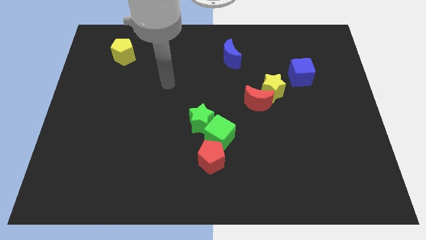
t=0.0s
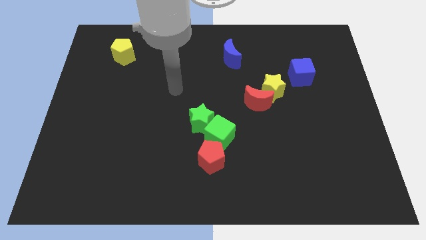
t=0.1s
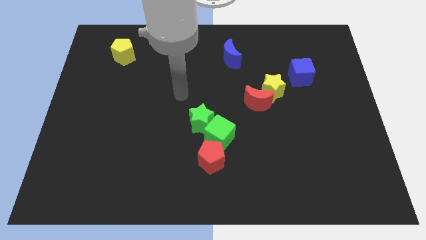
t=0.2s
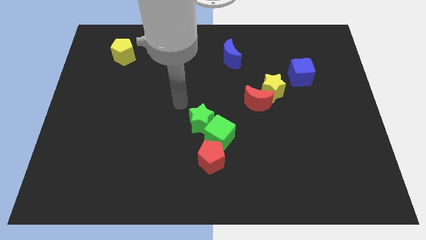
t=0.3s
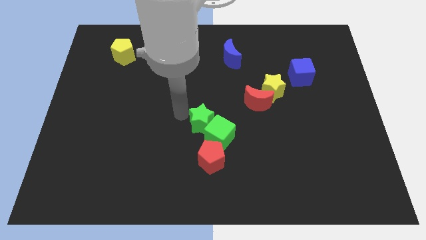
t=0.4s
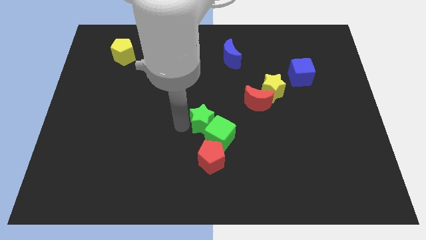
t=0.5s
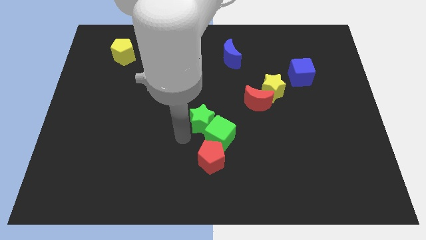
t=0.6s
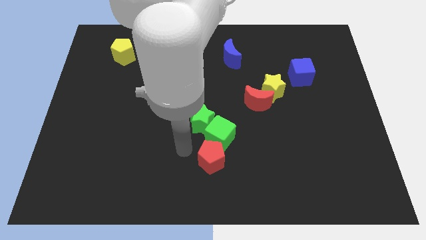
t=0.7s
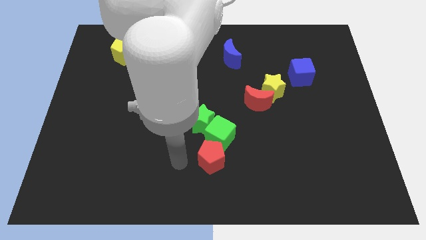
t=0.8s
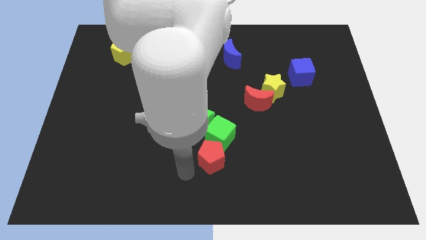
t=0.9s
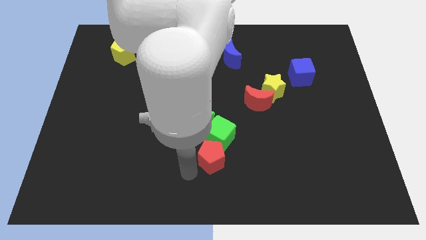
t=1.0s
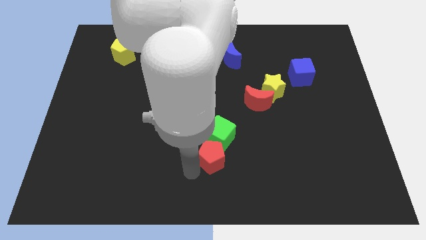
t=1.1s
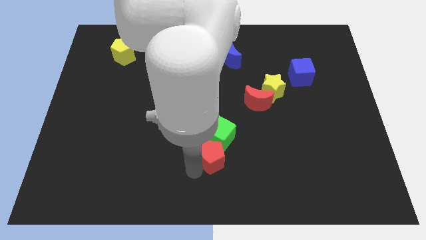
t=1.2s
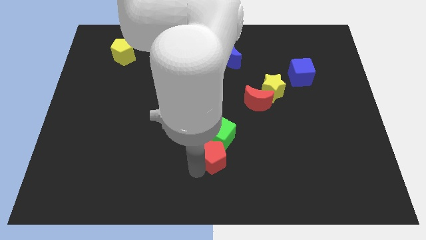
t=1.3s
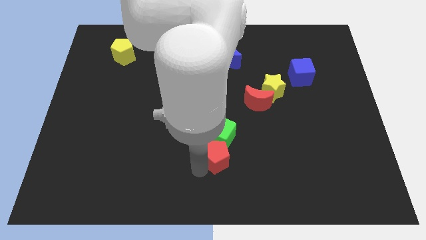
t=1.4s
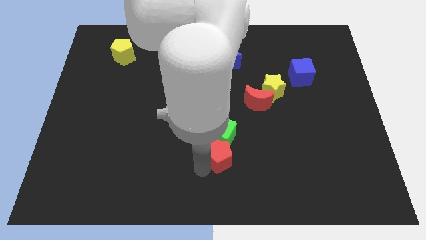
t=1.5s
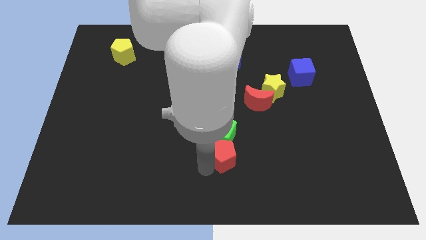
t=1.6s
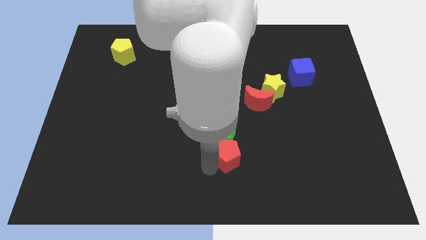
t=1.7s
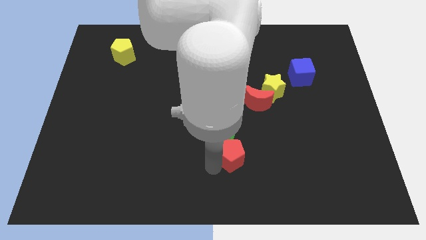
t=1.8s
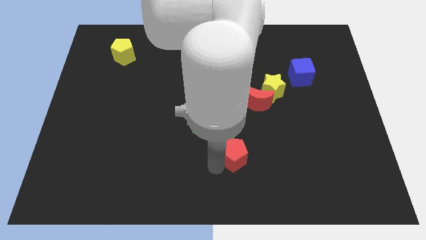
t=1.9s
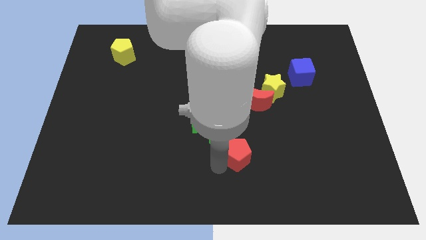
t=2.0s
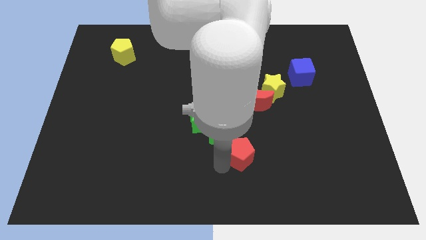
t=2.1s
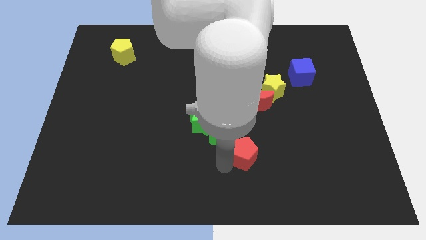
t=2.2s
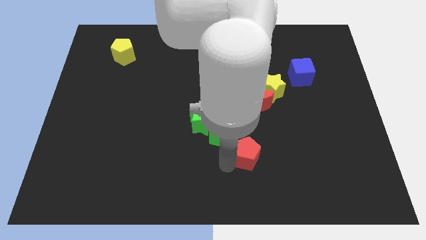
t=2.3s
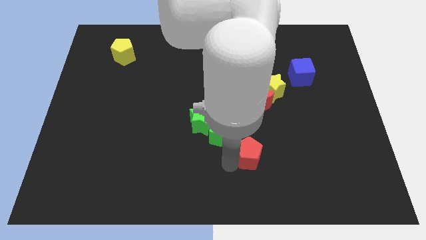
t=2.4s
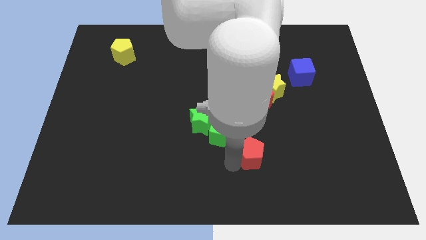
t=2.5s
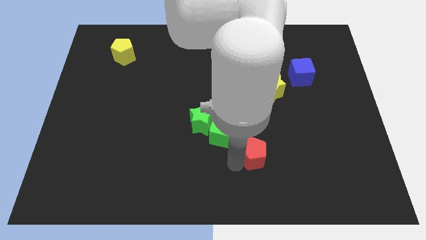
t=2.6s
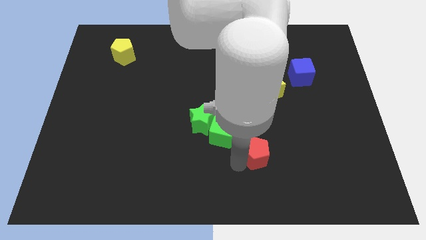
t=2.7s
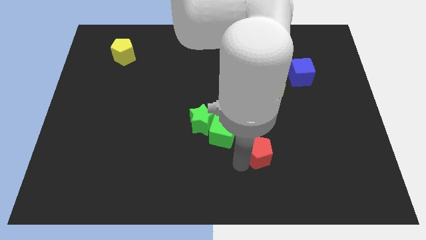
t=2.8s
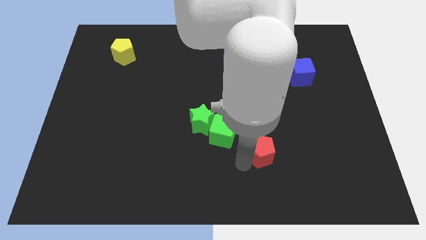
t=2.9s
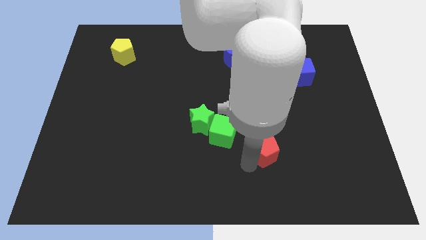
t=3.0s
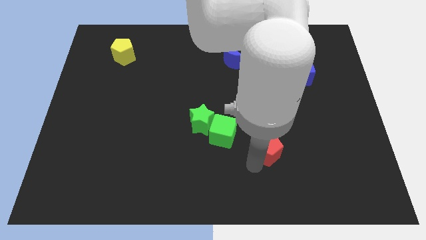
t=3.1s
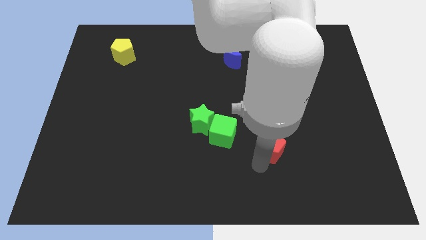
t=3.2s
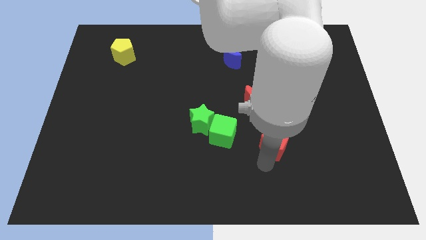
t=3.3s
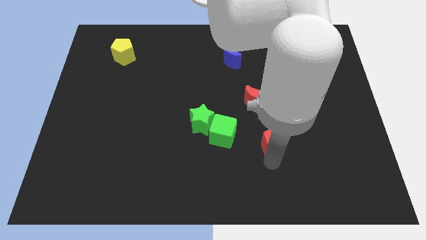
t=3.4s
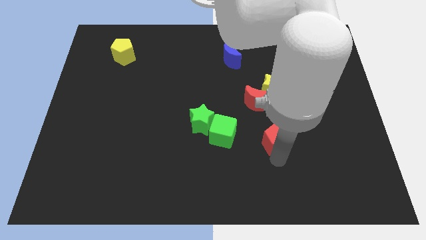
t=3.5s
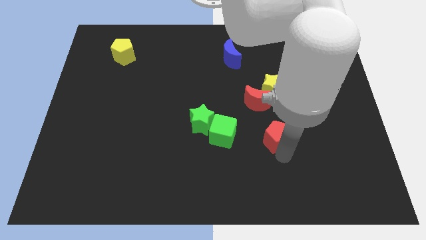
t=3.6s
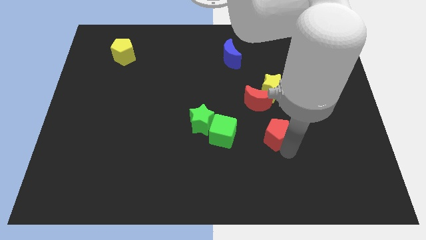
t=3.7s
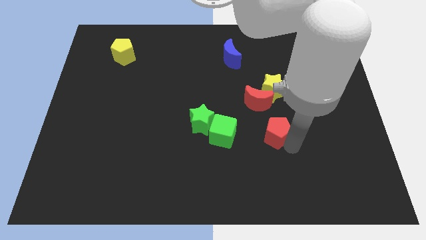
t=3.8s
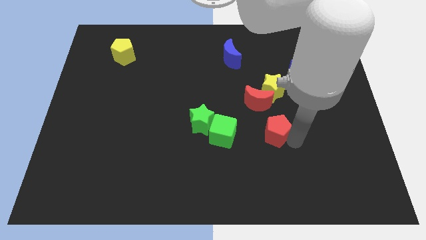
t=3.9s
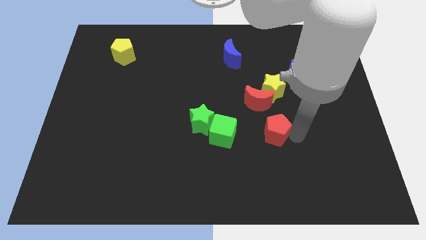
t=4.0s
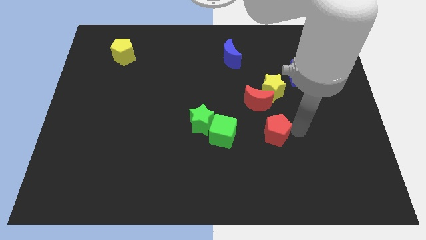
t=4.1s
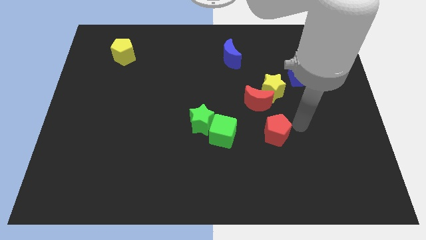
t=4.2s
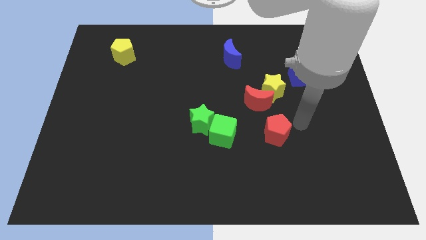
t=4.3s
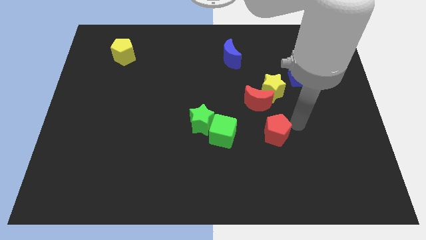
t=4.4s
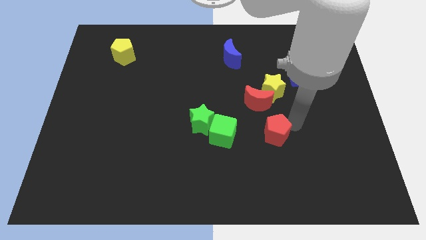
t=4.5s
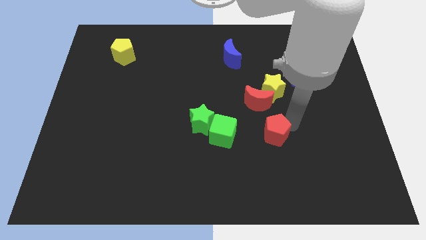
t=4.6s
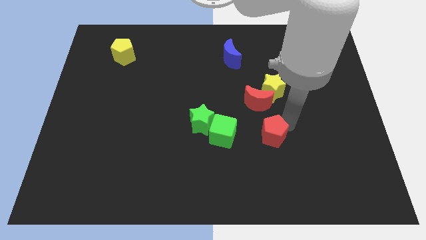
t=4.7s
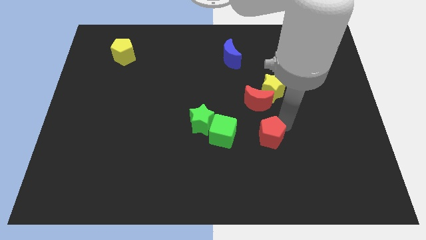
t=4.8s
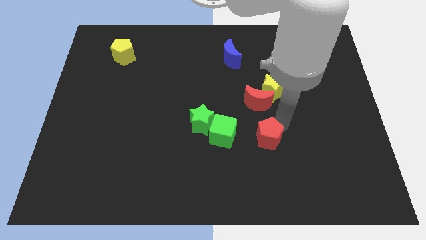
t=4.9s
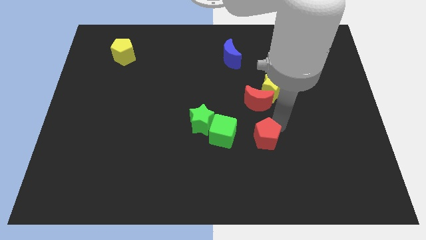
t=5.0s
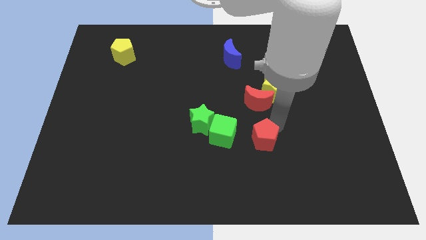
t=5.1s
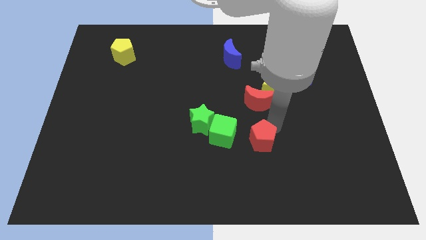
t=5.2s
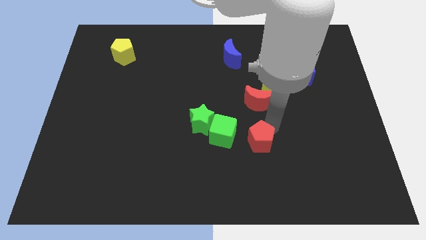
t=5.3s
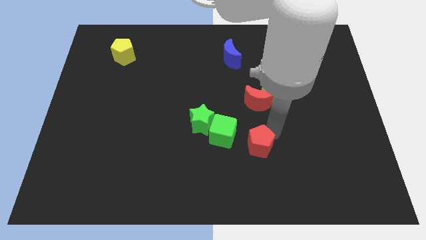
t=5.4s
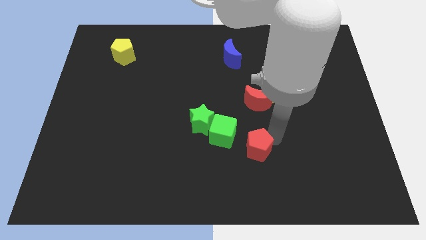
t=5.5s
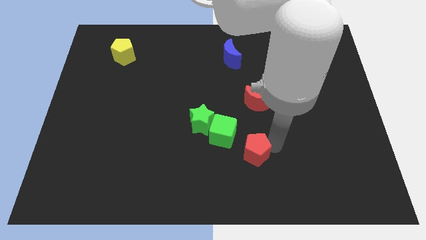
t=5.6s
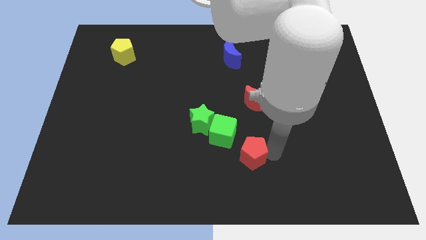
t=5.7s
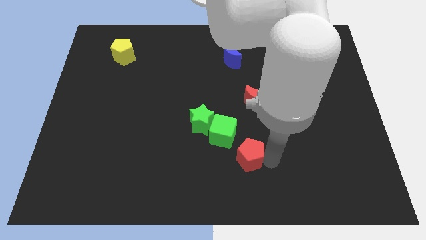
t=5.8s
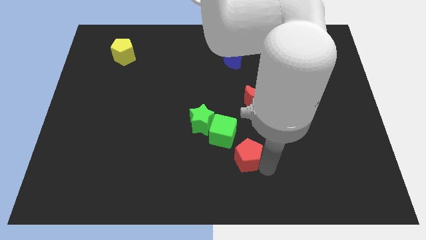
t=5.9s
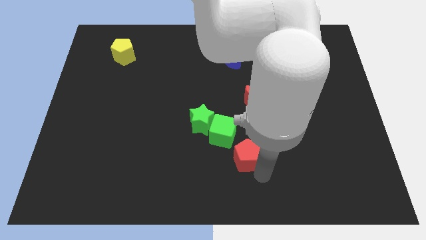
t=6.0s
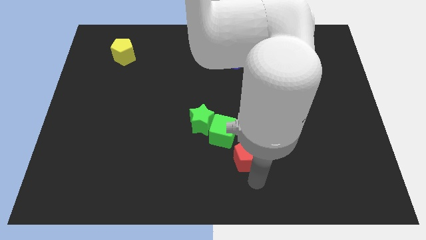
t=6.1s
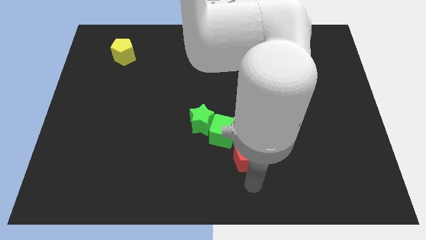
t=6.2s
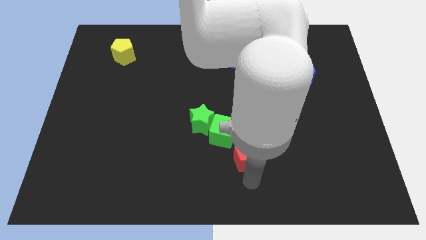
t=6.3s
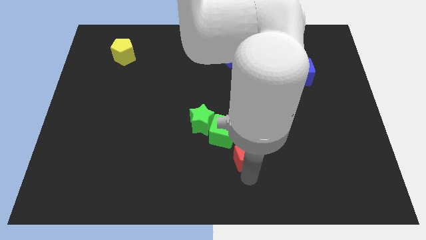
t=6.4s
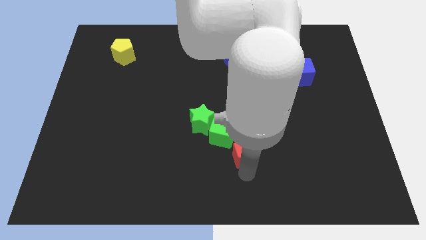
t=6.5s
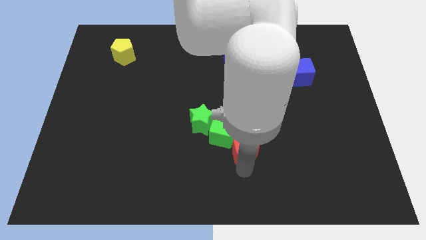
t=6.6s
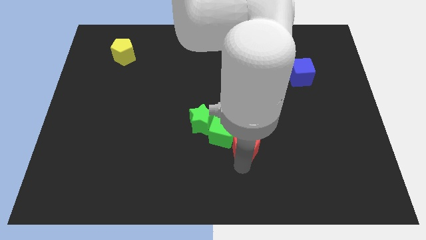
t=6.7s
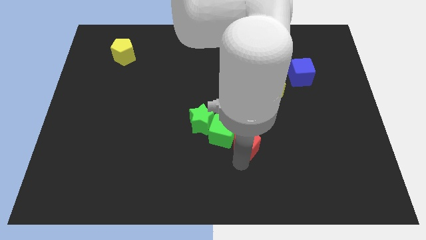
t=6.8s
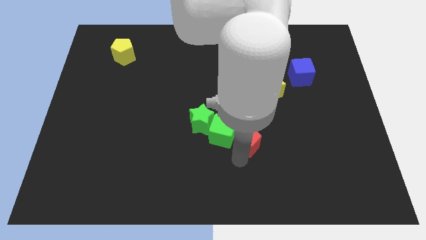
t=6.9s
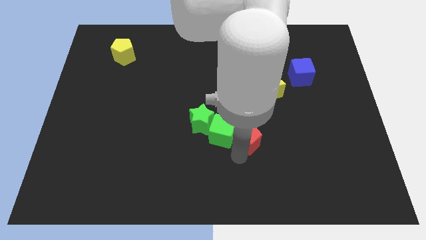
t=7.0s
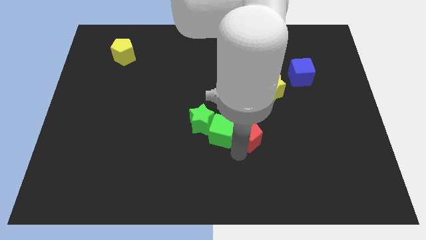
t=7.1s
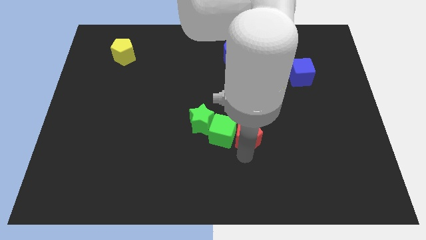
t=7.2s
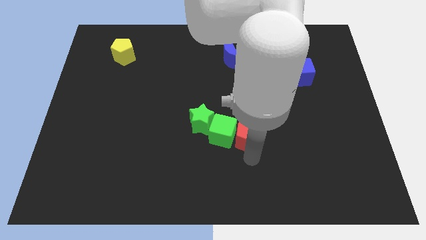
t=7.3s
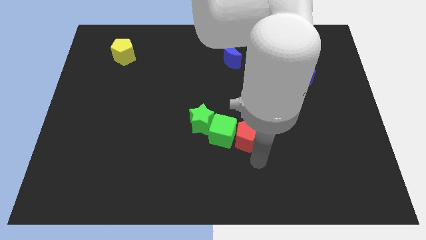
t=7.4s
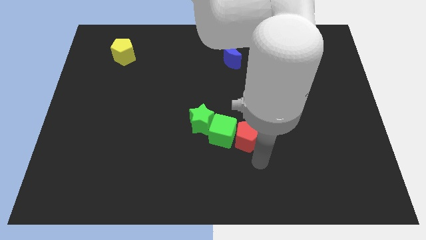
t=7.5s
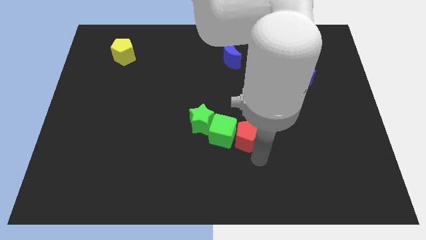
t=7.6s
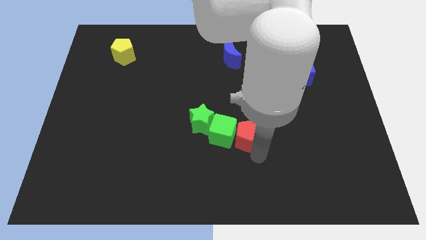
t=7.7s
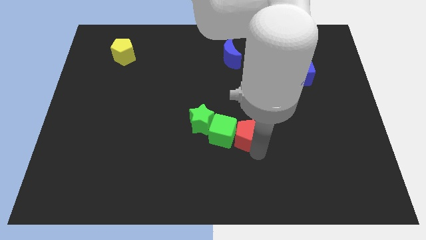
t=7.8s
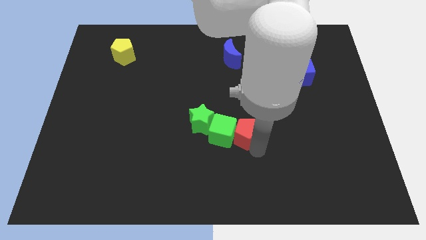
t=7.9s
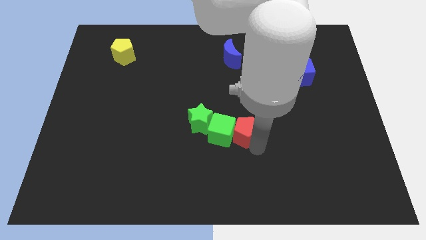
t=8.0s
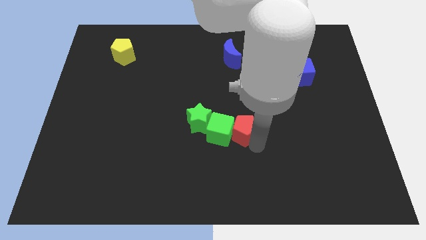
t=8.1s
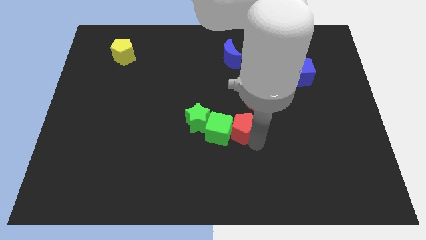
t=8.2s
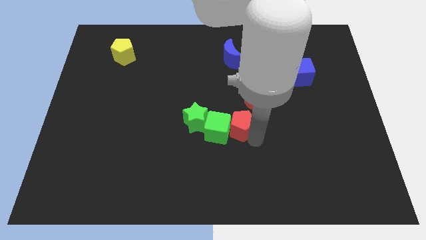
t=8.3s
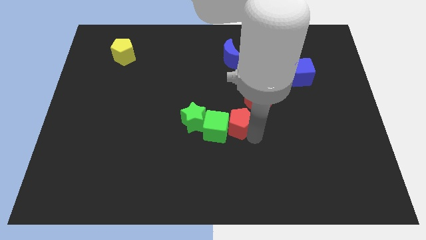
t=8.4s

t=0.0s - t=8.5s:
push the red pentagon up a little
